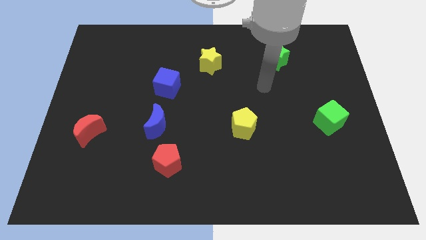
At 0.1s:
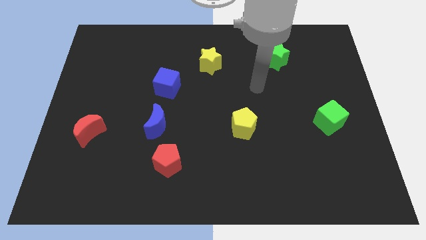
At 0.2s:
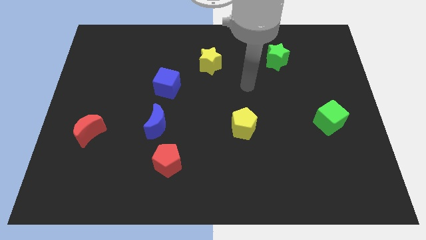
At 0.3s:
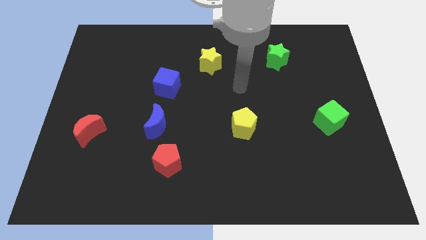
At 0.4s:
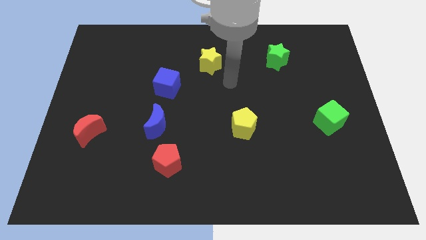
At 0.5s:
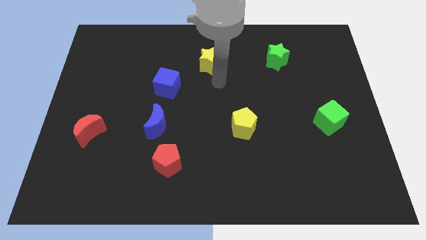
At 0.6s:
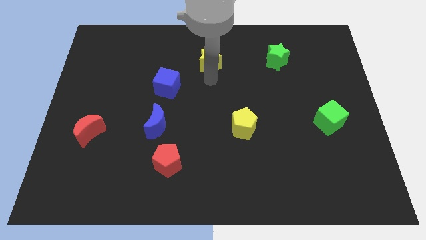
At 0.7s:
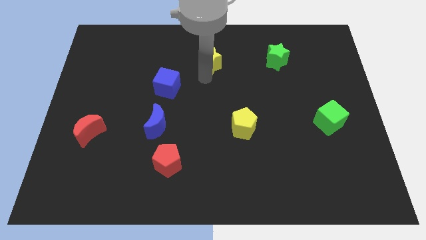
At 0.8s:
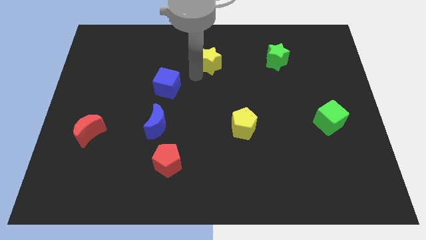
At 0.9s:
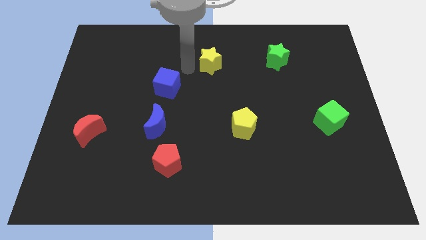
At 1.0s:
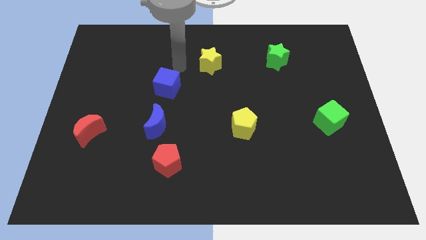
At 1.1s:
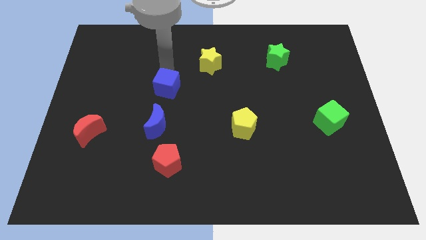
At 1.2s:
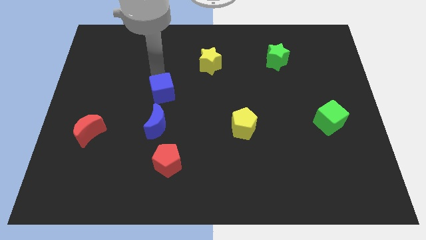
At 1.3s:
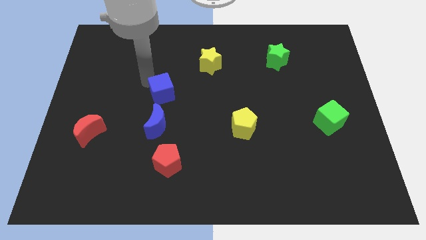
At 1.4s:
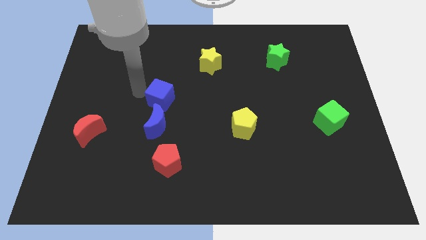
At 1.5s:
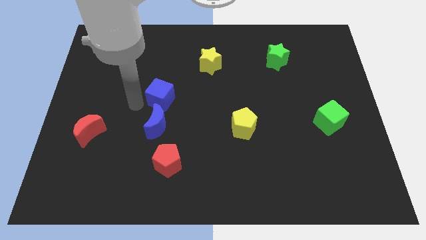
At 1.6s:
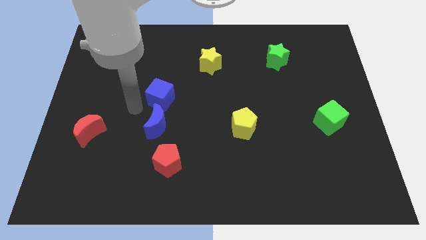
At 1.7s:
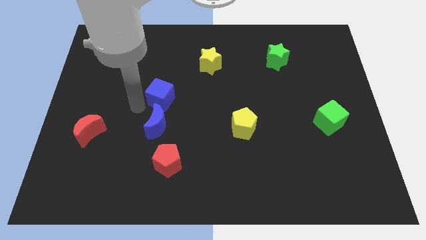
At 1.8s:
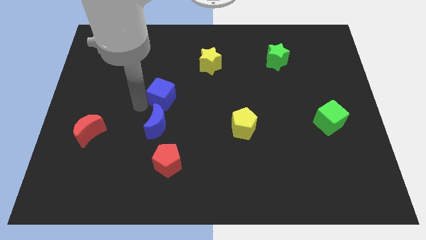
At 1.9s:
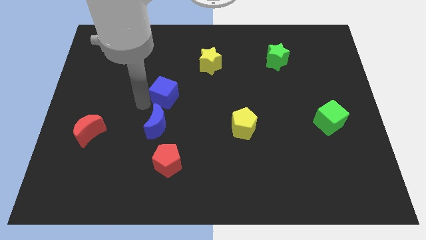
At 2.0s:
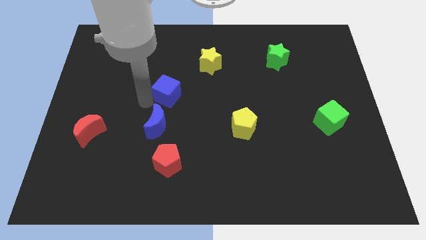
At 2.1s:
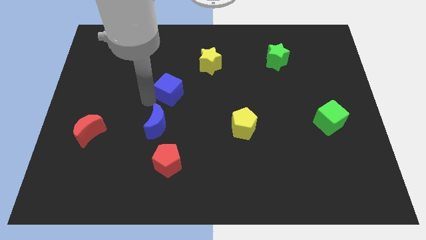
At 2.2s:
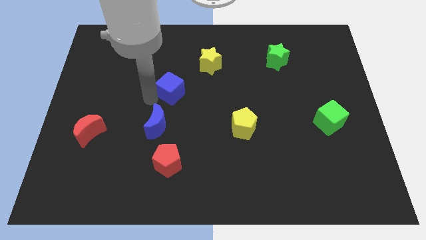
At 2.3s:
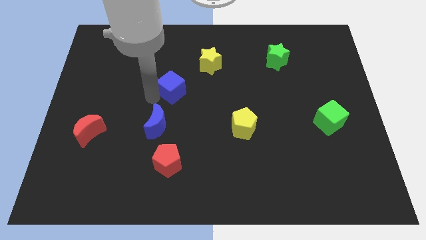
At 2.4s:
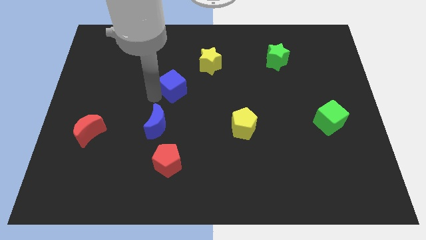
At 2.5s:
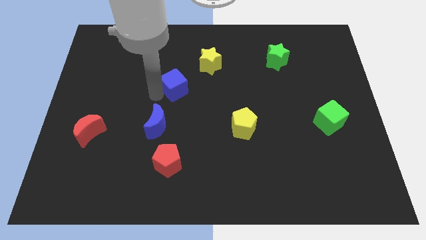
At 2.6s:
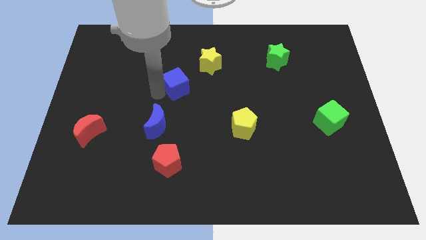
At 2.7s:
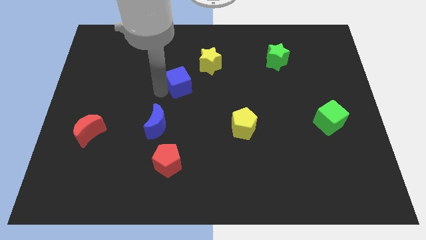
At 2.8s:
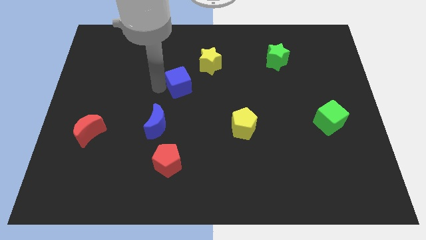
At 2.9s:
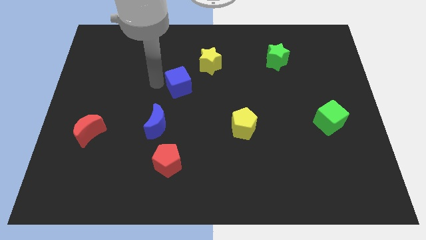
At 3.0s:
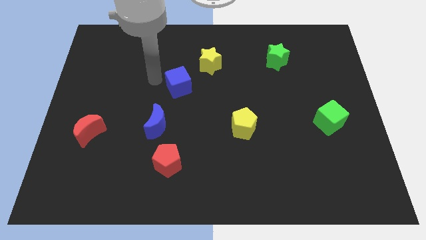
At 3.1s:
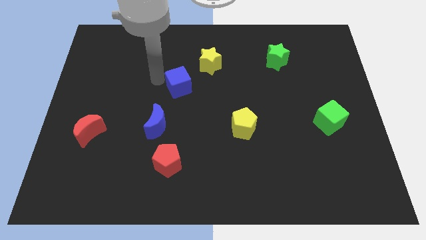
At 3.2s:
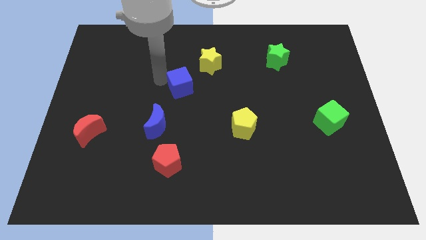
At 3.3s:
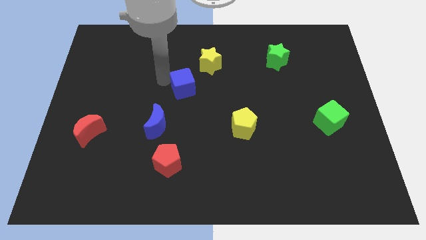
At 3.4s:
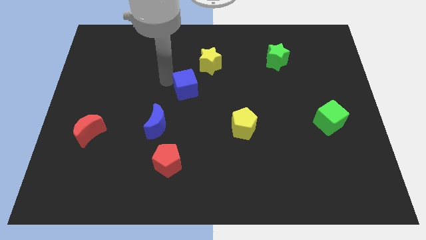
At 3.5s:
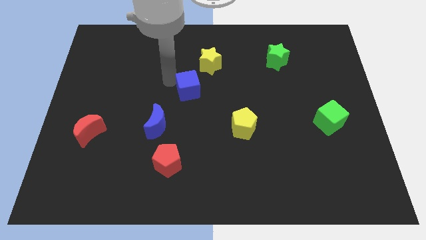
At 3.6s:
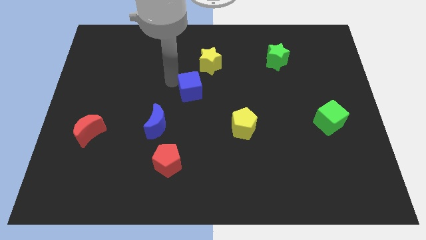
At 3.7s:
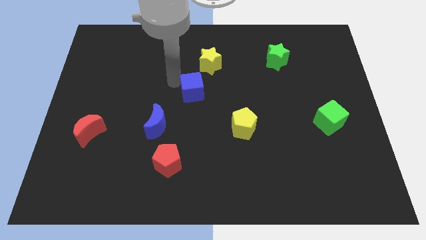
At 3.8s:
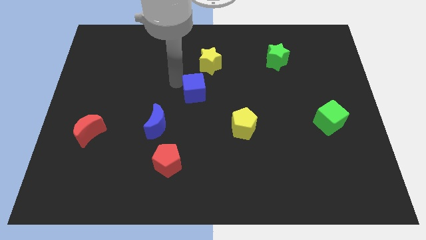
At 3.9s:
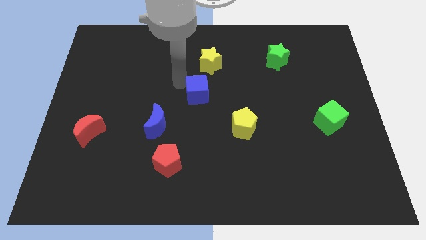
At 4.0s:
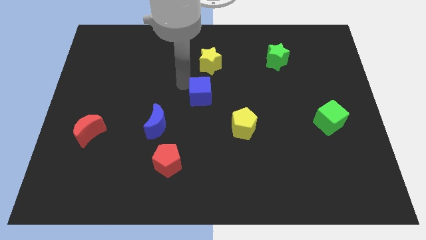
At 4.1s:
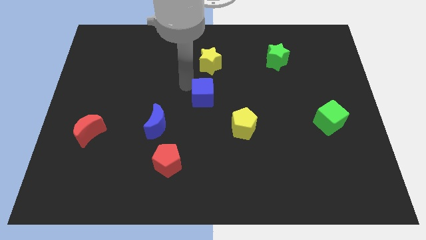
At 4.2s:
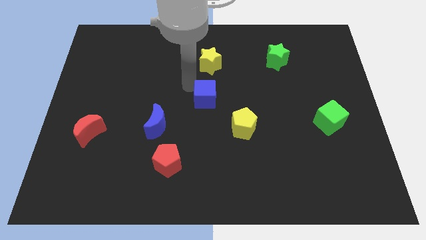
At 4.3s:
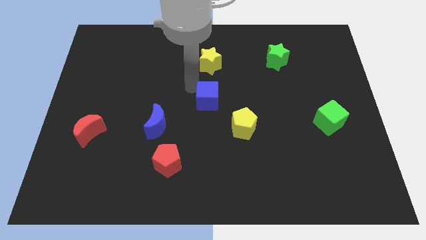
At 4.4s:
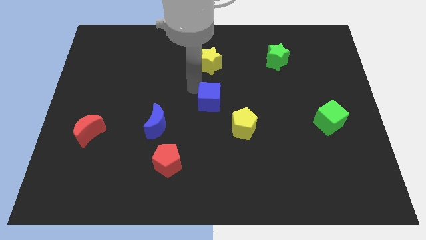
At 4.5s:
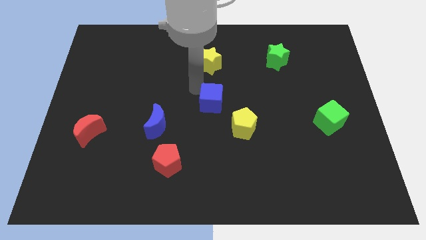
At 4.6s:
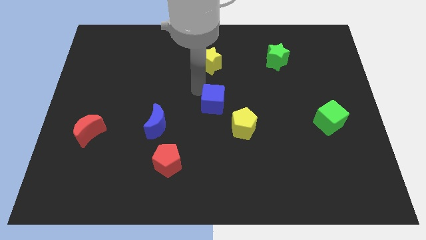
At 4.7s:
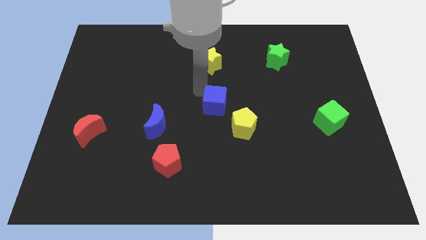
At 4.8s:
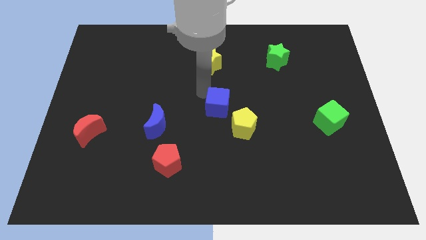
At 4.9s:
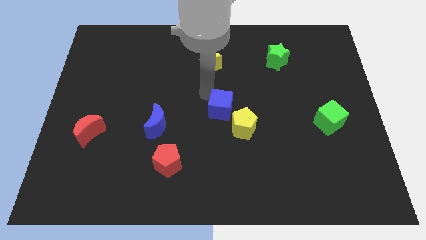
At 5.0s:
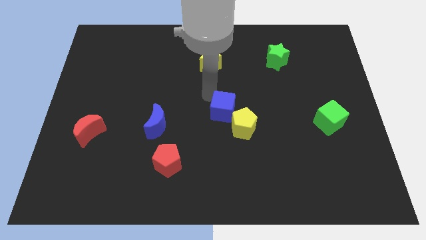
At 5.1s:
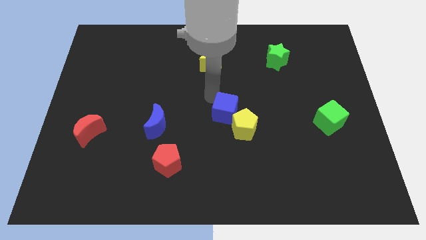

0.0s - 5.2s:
put the blue cube next to the yellow pentagon

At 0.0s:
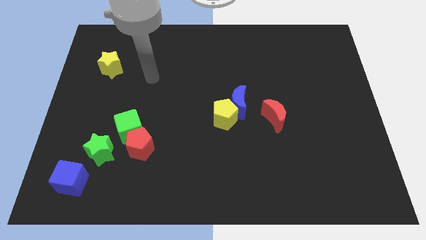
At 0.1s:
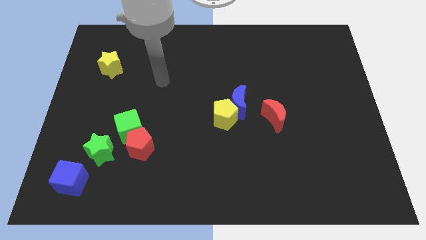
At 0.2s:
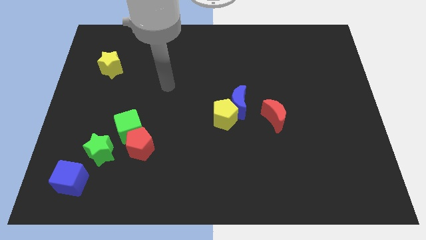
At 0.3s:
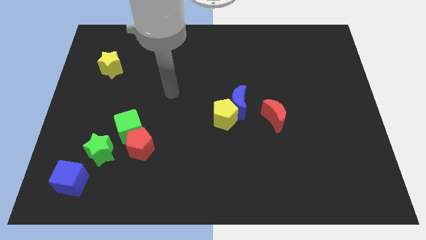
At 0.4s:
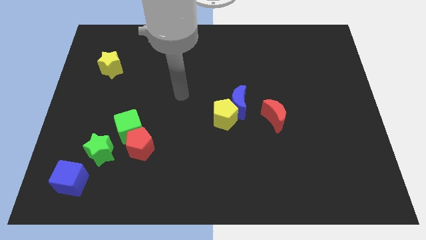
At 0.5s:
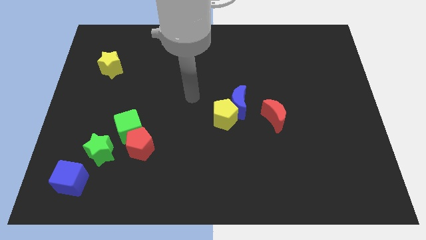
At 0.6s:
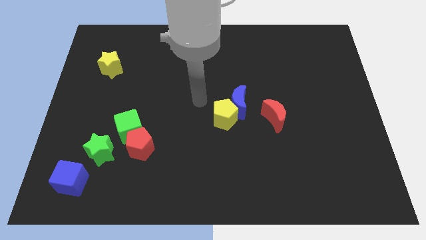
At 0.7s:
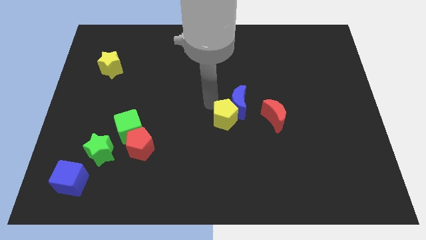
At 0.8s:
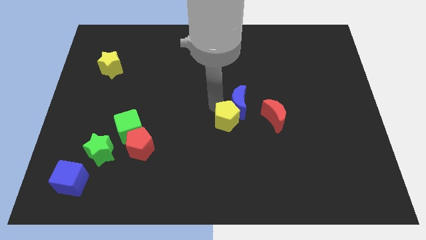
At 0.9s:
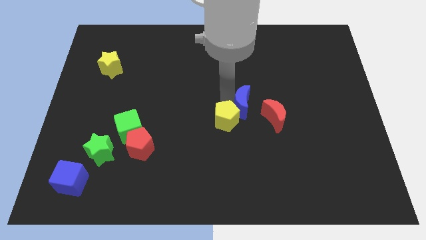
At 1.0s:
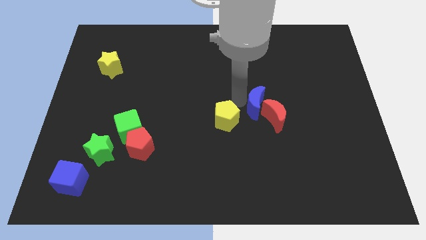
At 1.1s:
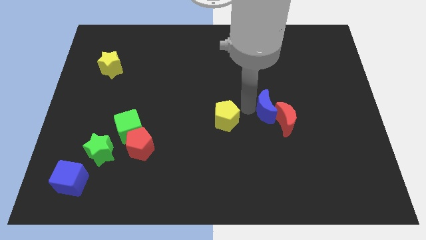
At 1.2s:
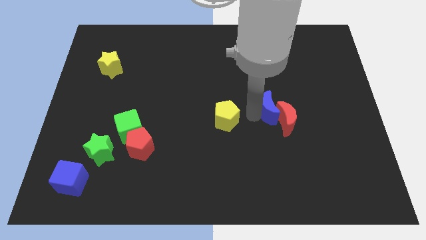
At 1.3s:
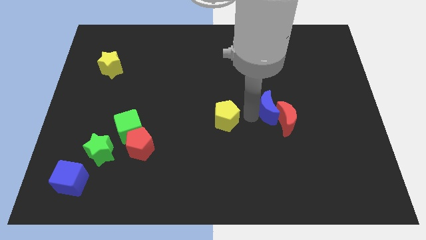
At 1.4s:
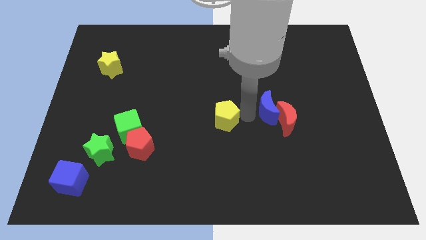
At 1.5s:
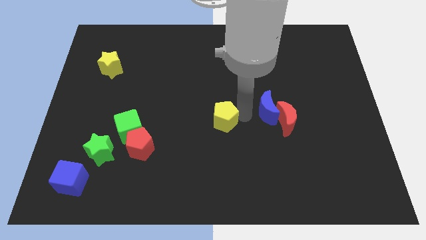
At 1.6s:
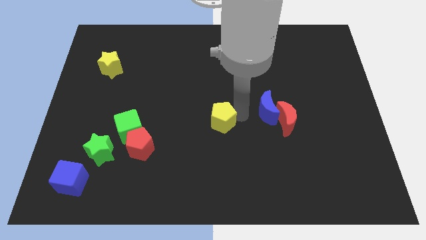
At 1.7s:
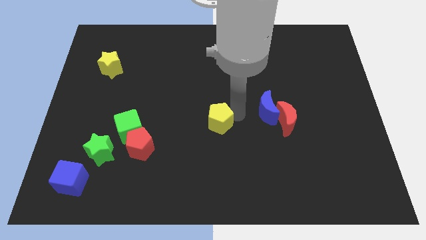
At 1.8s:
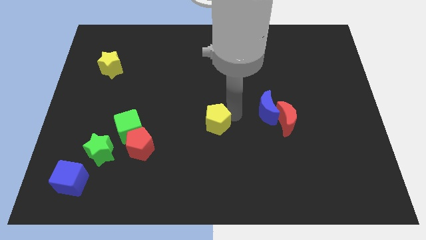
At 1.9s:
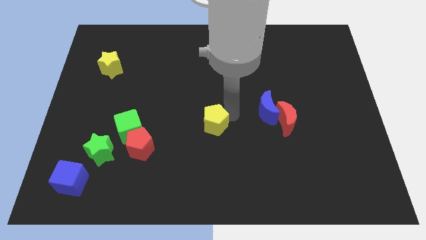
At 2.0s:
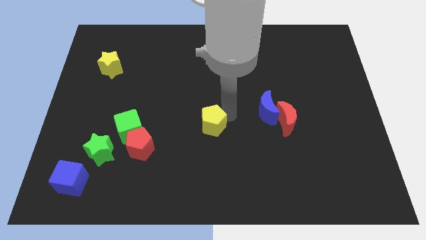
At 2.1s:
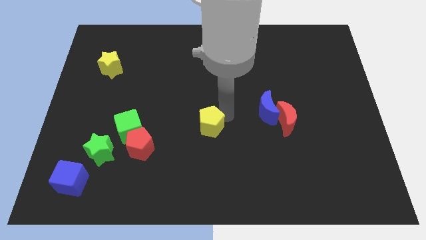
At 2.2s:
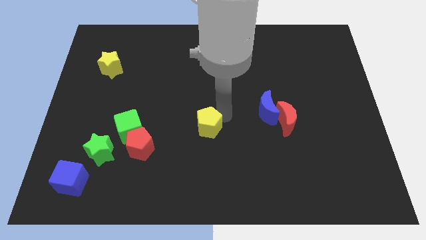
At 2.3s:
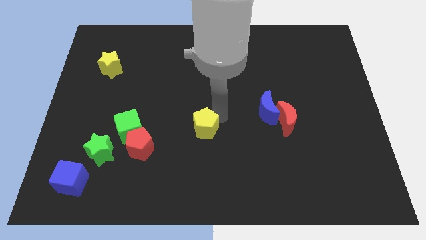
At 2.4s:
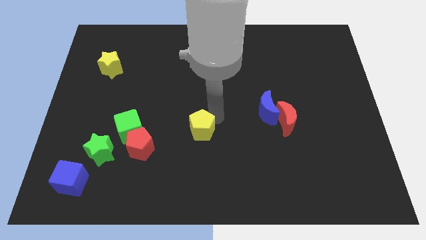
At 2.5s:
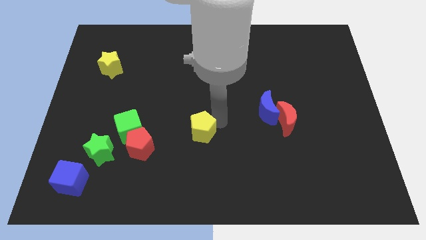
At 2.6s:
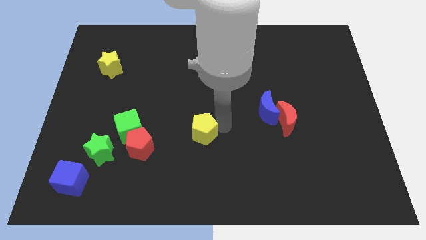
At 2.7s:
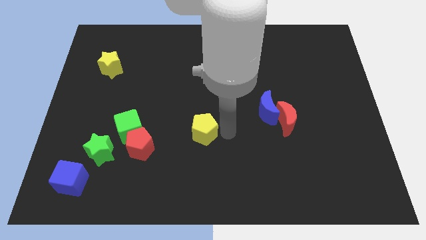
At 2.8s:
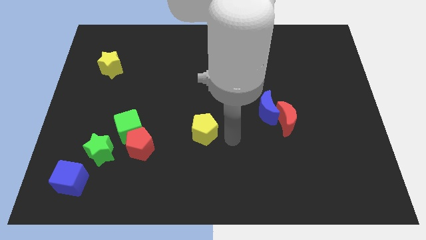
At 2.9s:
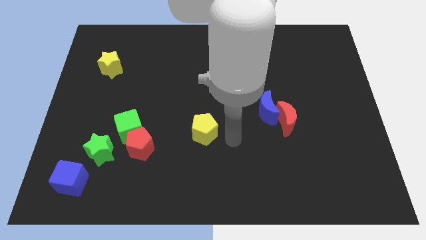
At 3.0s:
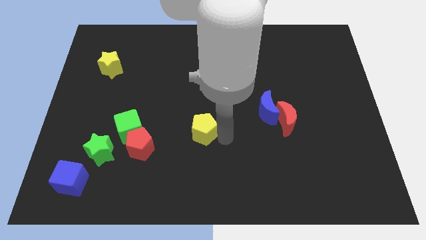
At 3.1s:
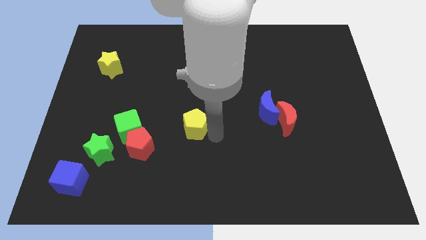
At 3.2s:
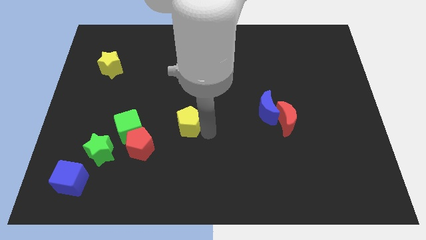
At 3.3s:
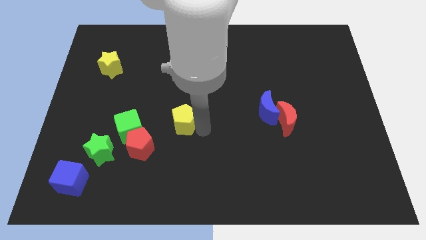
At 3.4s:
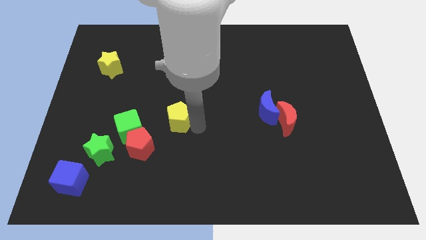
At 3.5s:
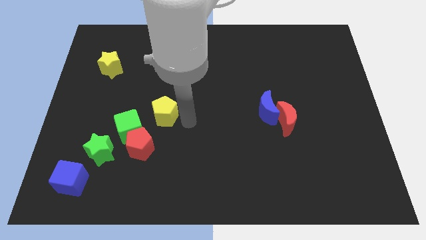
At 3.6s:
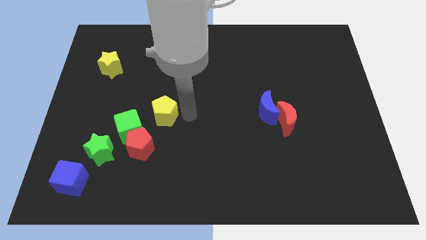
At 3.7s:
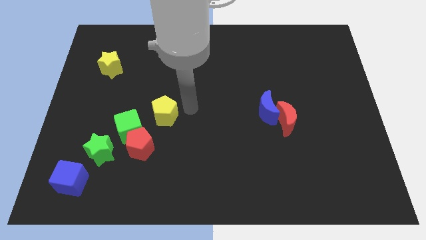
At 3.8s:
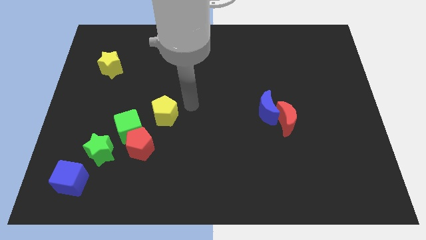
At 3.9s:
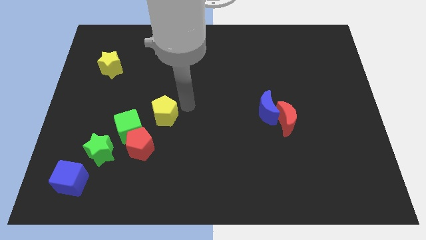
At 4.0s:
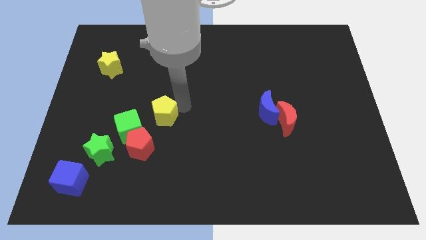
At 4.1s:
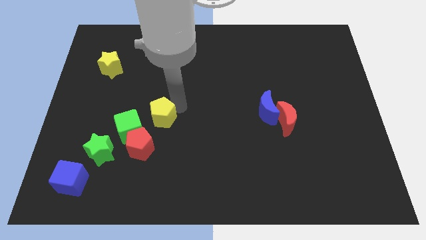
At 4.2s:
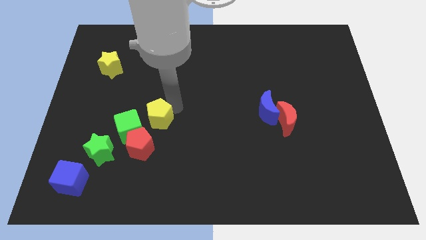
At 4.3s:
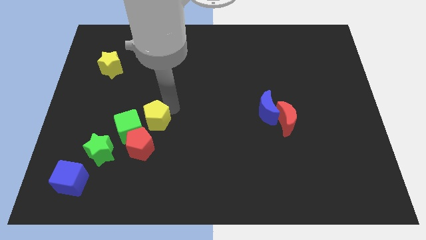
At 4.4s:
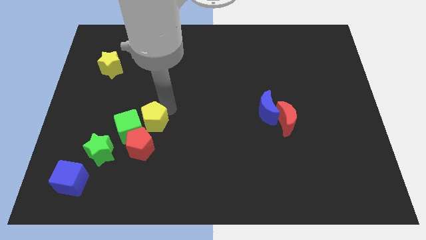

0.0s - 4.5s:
push the yellow pentagon close to the green cube
